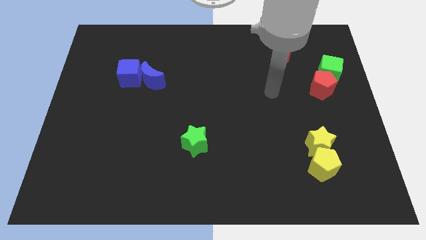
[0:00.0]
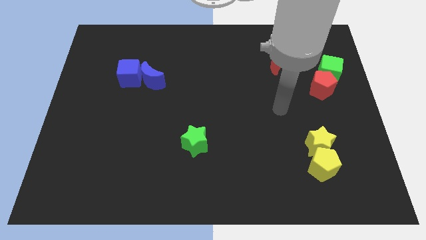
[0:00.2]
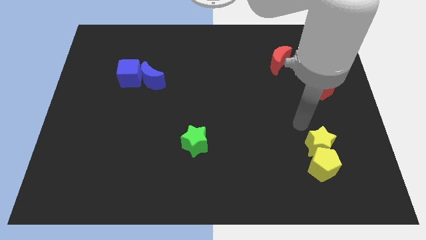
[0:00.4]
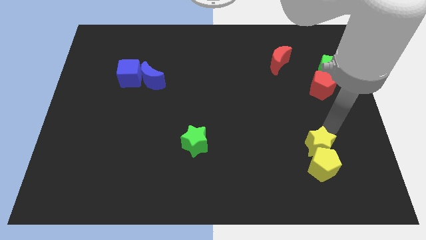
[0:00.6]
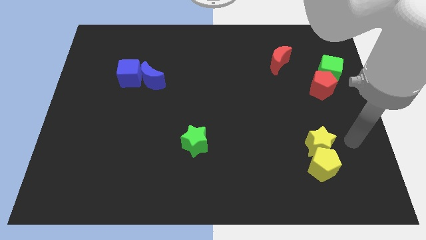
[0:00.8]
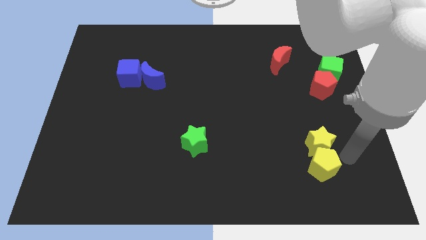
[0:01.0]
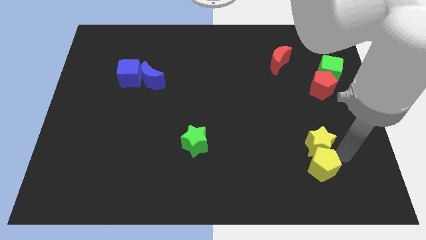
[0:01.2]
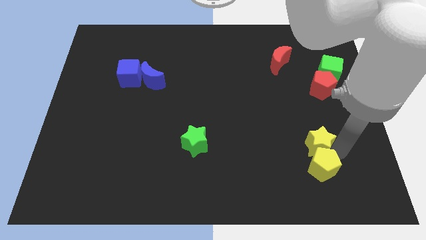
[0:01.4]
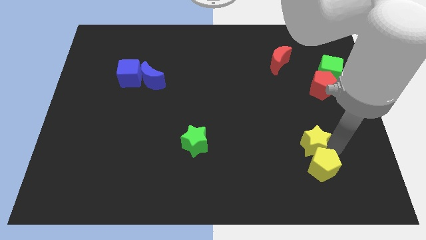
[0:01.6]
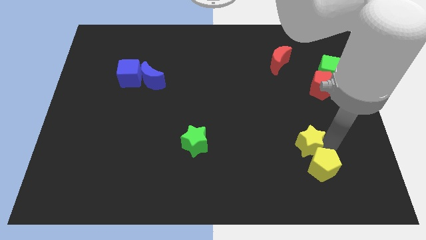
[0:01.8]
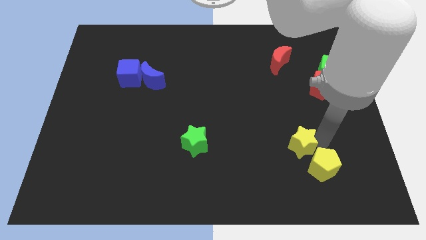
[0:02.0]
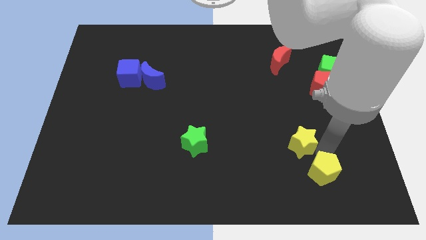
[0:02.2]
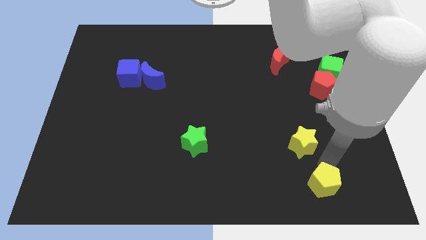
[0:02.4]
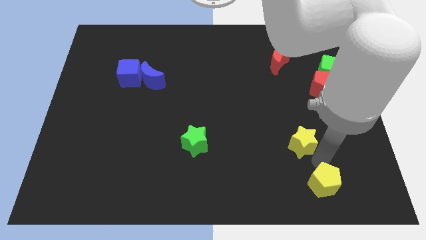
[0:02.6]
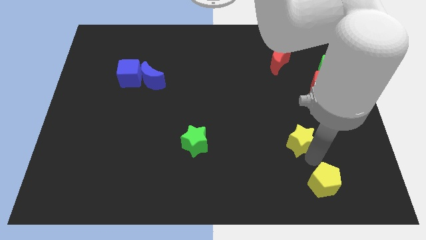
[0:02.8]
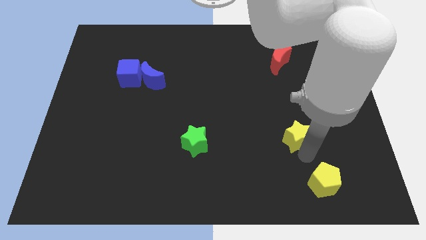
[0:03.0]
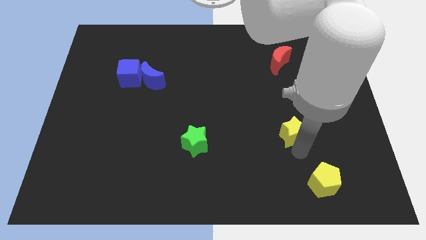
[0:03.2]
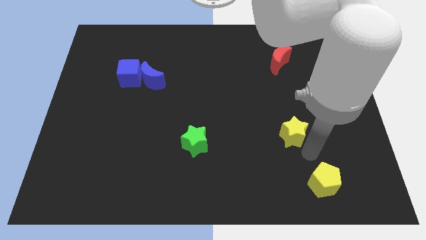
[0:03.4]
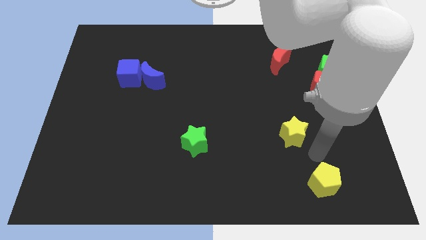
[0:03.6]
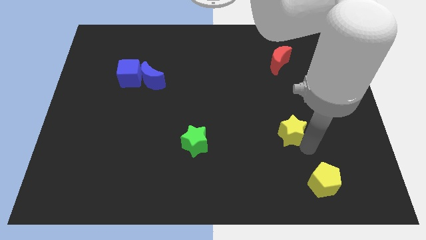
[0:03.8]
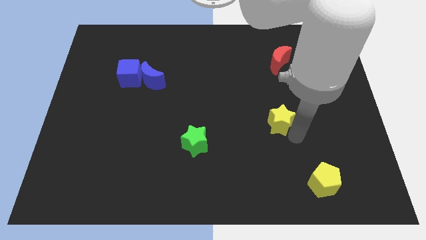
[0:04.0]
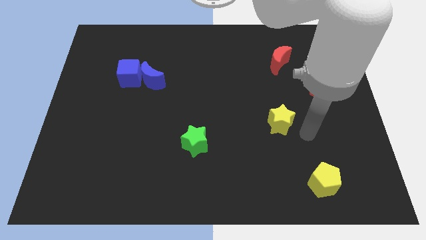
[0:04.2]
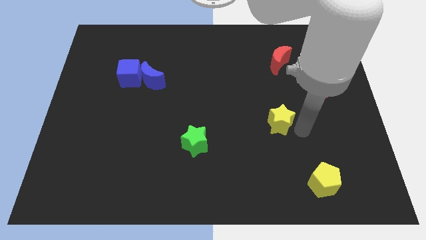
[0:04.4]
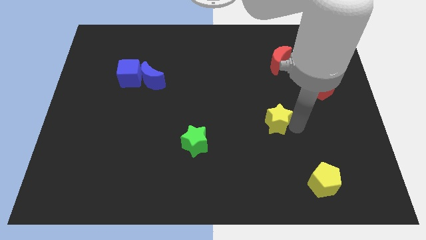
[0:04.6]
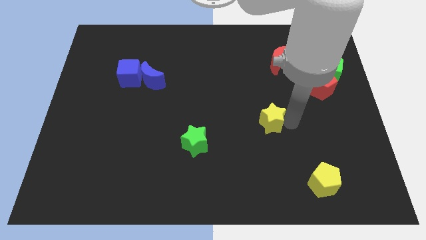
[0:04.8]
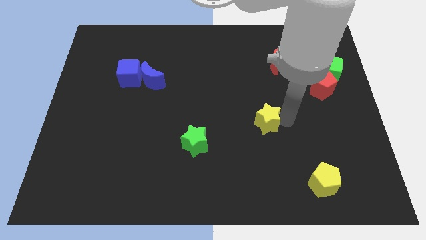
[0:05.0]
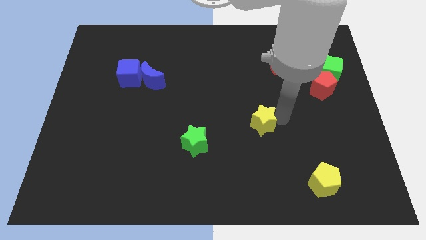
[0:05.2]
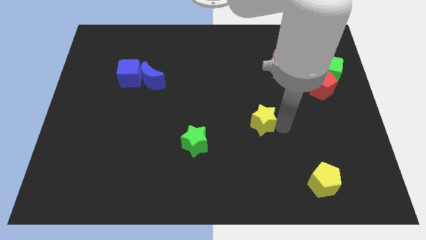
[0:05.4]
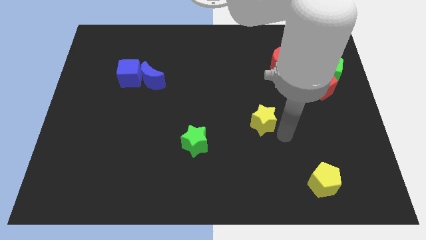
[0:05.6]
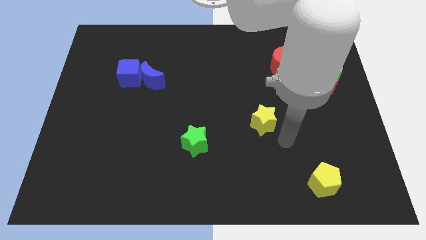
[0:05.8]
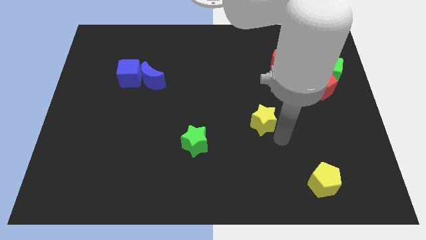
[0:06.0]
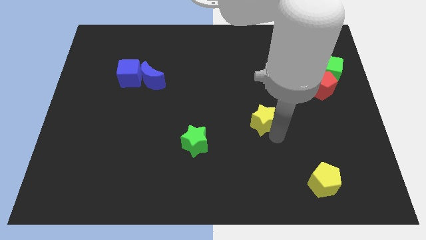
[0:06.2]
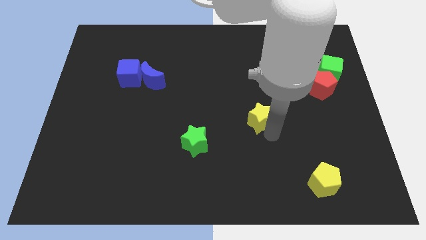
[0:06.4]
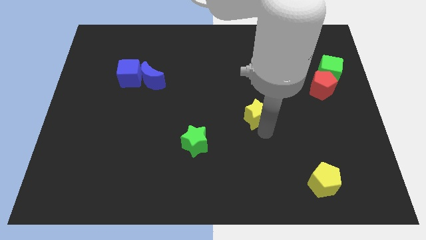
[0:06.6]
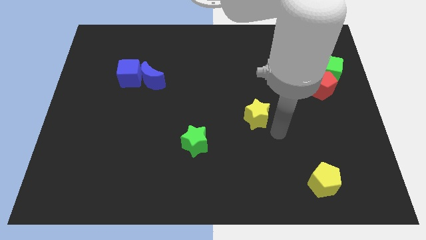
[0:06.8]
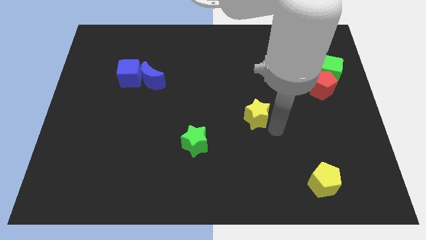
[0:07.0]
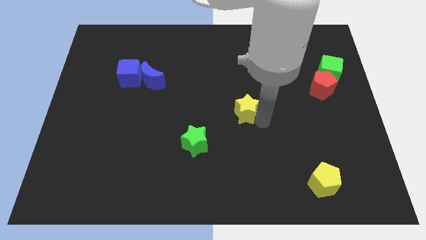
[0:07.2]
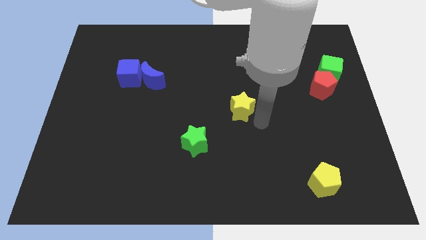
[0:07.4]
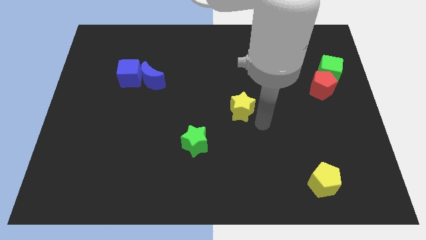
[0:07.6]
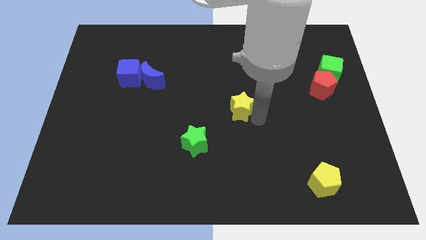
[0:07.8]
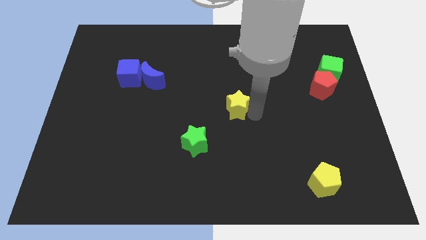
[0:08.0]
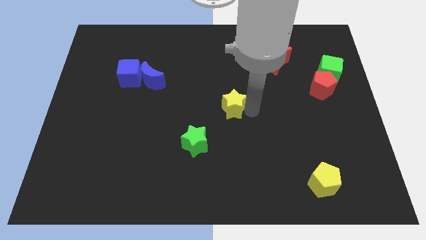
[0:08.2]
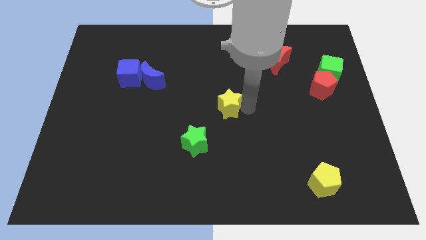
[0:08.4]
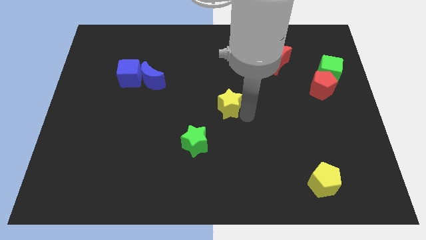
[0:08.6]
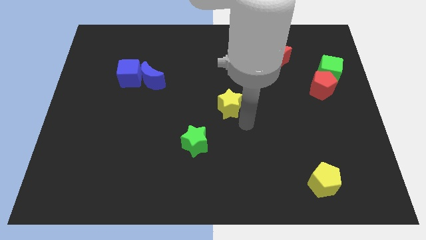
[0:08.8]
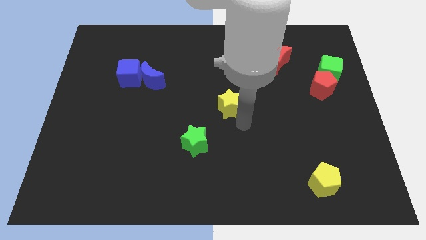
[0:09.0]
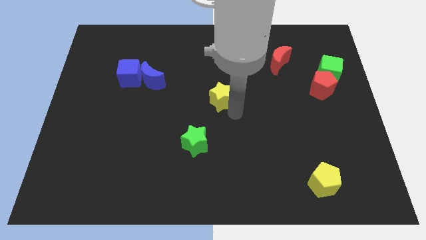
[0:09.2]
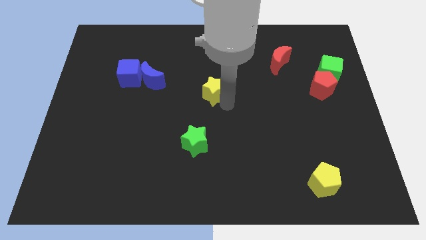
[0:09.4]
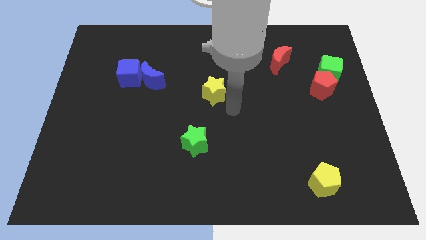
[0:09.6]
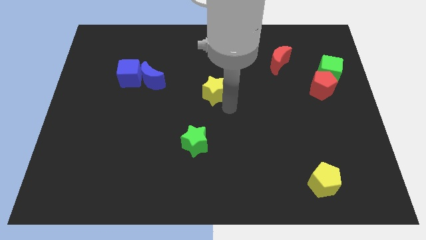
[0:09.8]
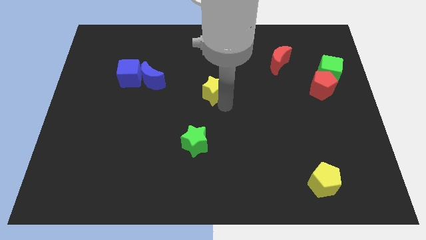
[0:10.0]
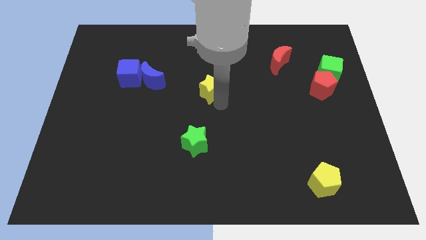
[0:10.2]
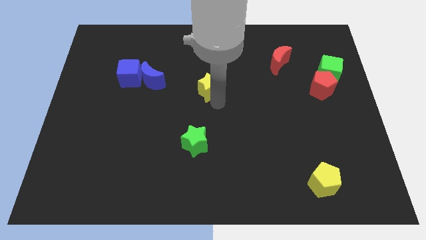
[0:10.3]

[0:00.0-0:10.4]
slide the yellow star to the right side of the blue moon

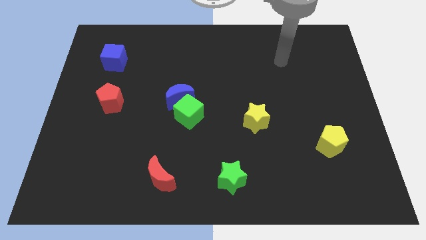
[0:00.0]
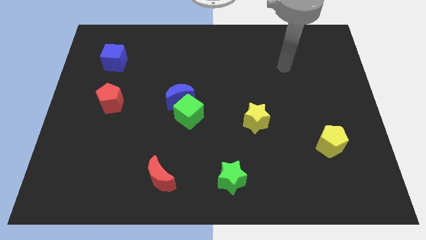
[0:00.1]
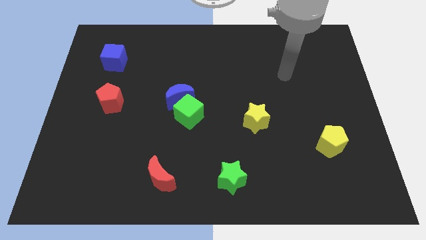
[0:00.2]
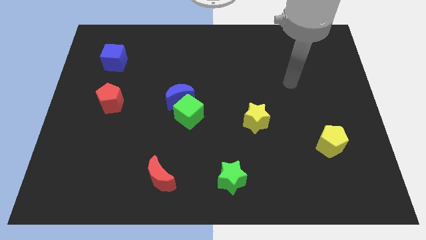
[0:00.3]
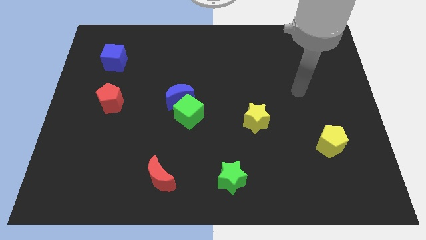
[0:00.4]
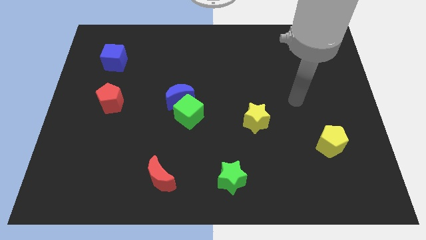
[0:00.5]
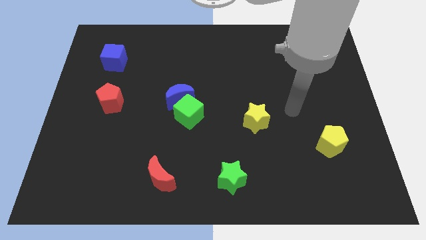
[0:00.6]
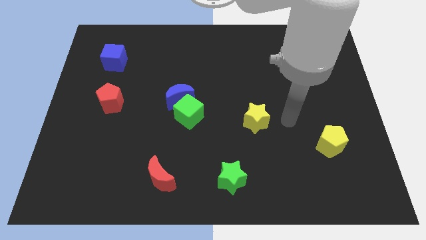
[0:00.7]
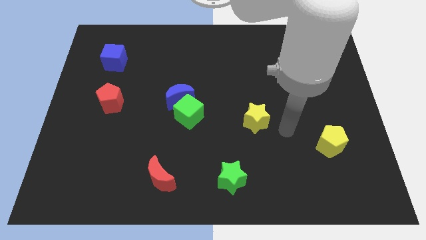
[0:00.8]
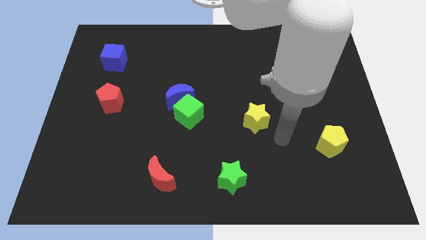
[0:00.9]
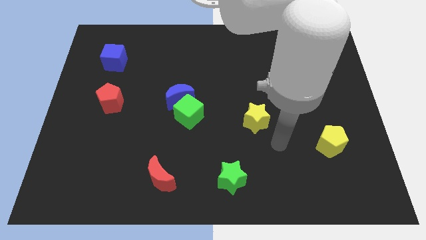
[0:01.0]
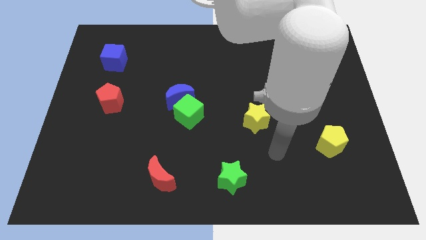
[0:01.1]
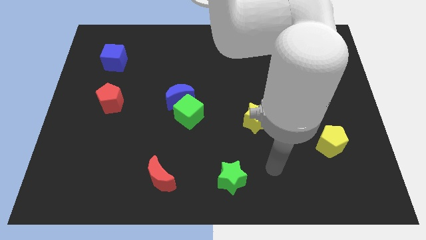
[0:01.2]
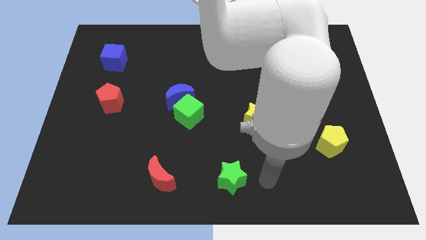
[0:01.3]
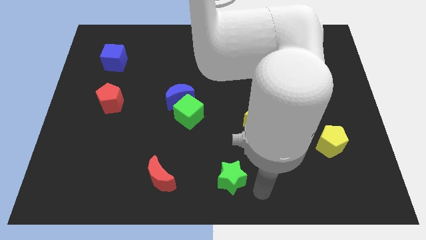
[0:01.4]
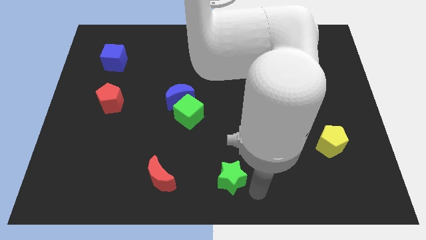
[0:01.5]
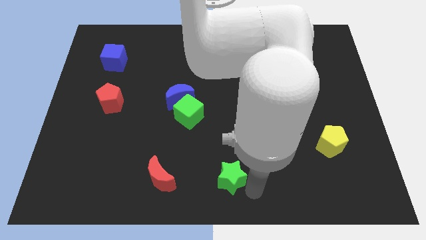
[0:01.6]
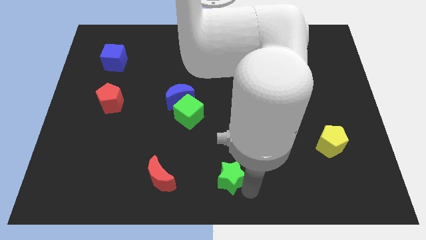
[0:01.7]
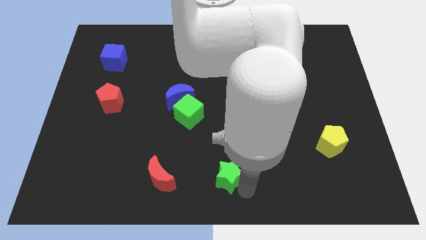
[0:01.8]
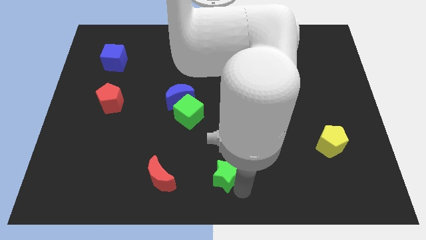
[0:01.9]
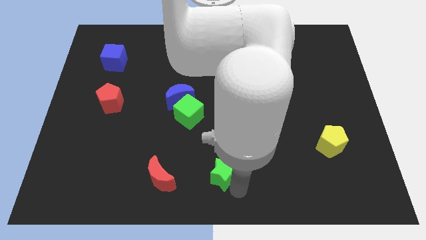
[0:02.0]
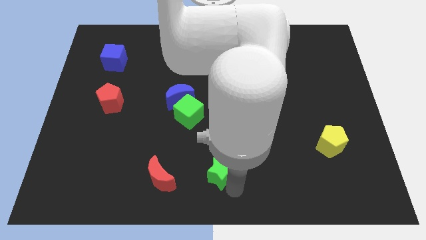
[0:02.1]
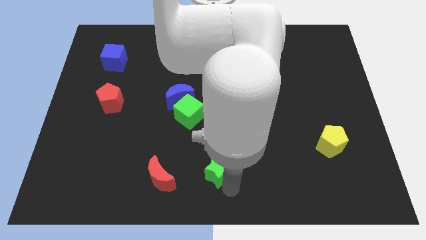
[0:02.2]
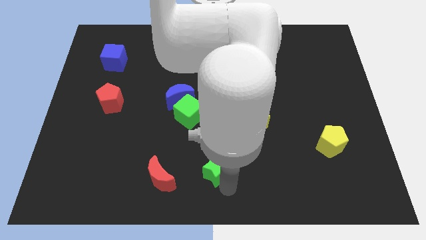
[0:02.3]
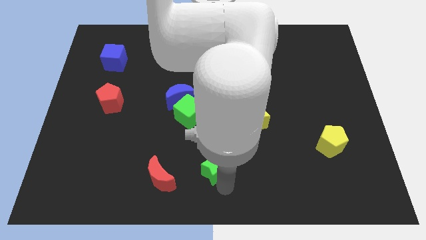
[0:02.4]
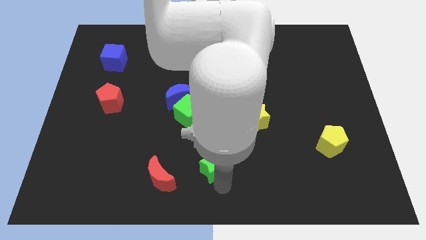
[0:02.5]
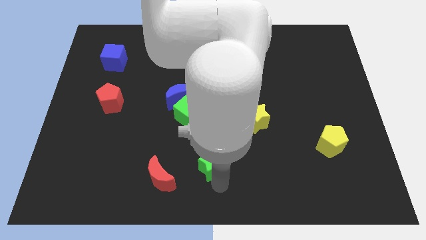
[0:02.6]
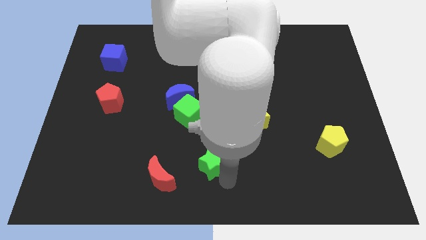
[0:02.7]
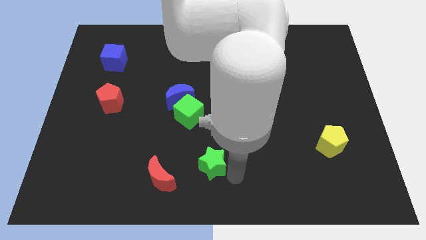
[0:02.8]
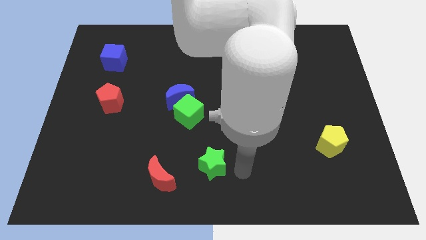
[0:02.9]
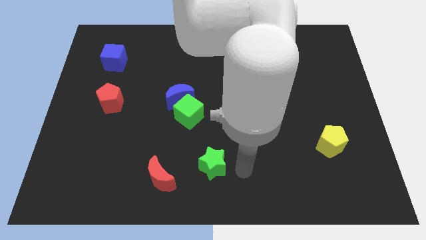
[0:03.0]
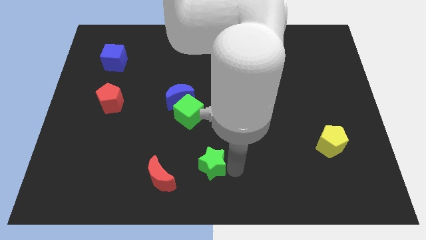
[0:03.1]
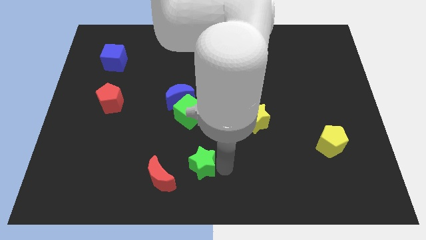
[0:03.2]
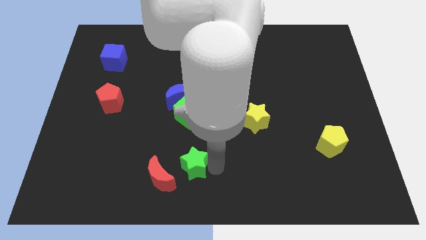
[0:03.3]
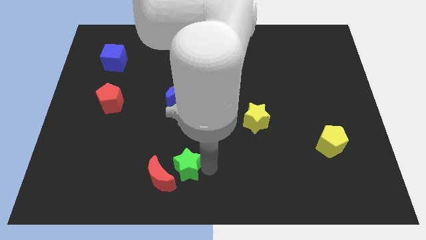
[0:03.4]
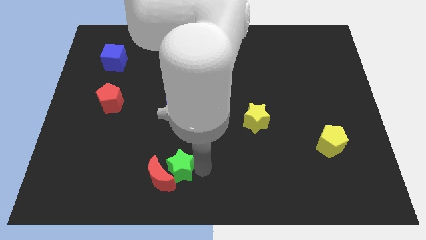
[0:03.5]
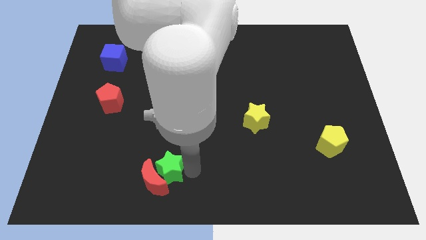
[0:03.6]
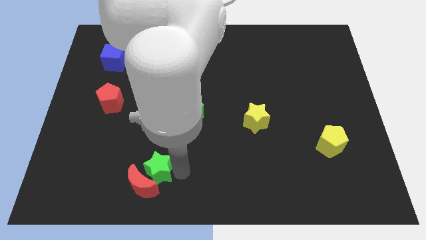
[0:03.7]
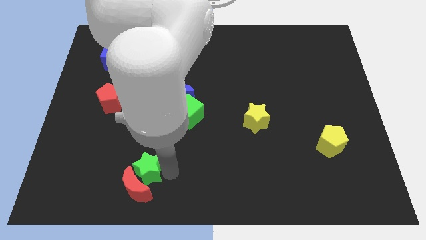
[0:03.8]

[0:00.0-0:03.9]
put the green star diagonally up and to the left of the red moon
